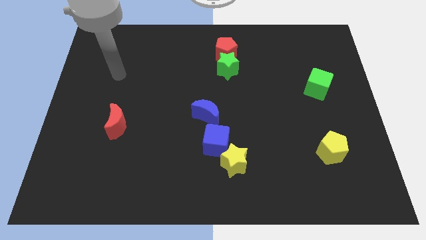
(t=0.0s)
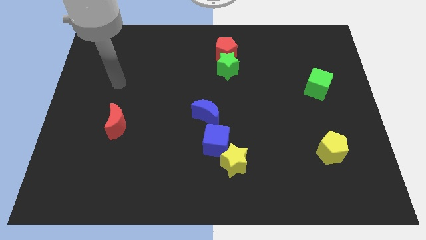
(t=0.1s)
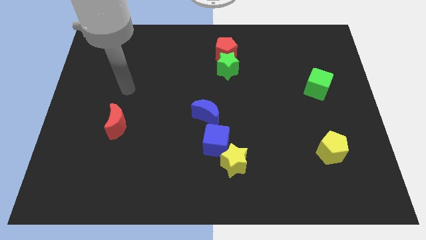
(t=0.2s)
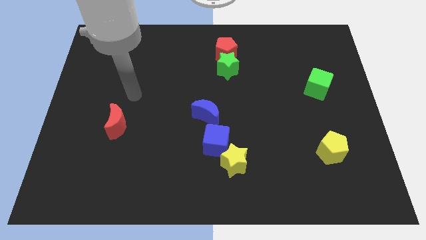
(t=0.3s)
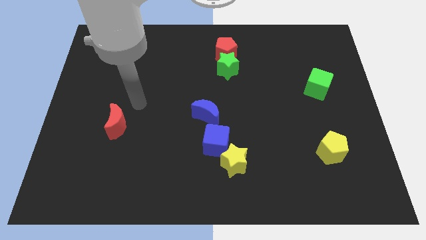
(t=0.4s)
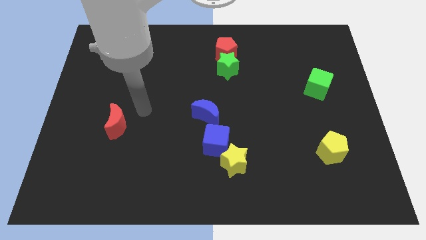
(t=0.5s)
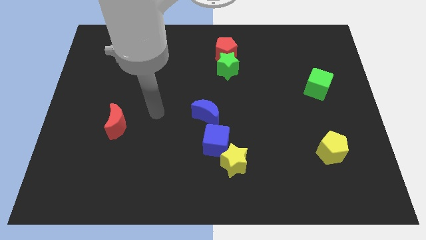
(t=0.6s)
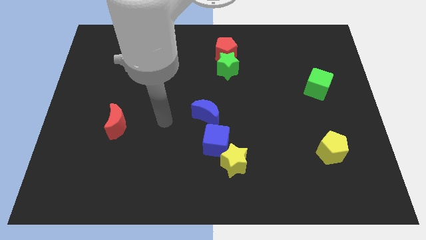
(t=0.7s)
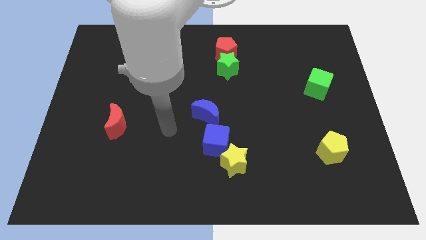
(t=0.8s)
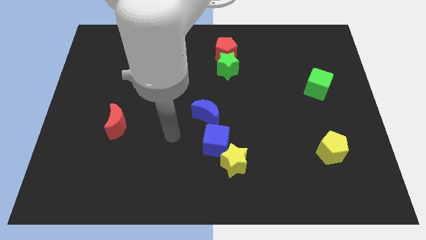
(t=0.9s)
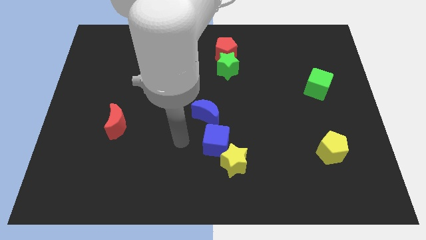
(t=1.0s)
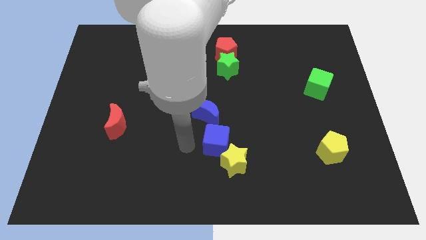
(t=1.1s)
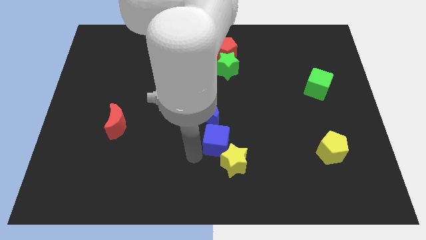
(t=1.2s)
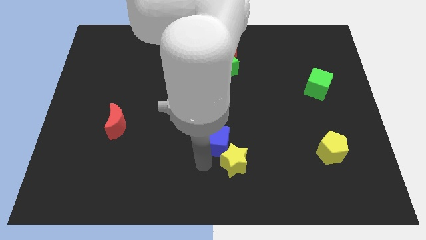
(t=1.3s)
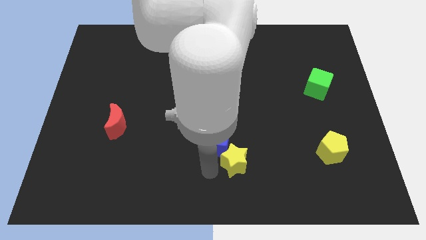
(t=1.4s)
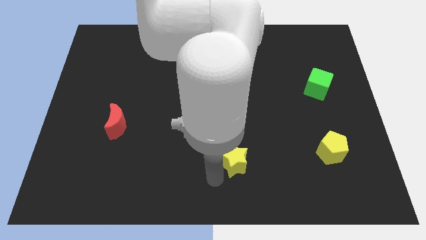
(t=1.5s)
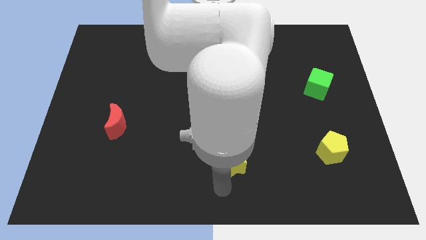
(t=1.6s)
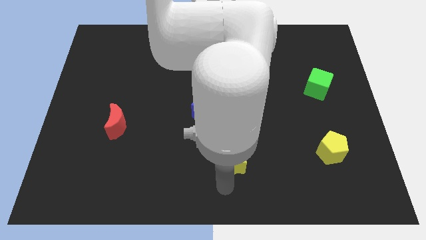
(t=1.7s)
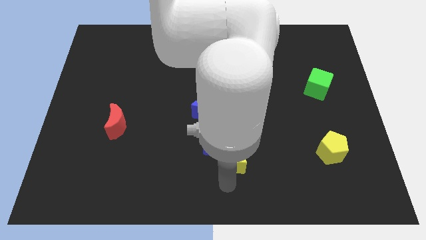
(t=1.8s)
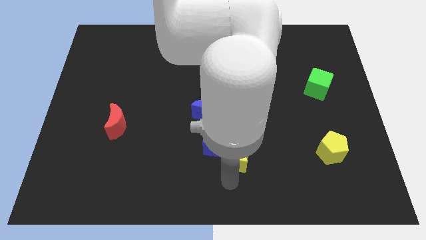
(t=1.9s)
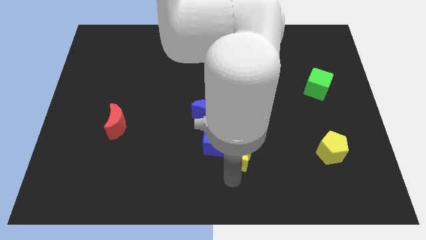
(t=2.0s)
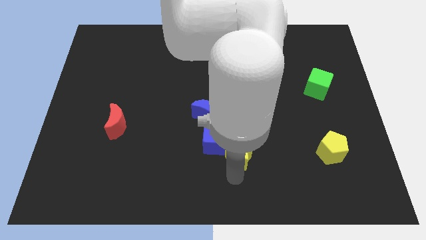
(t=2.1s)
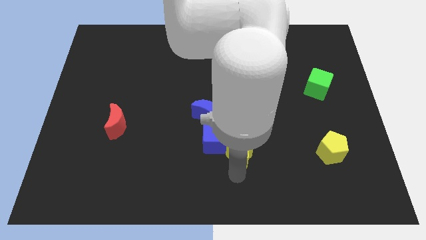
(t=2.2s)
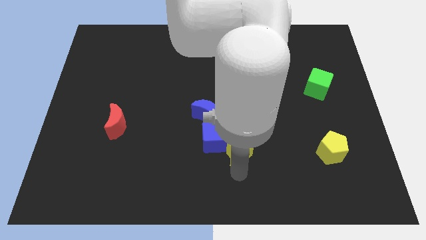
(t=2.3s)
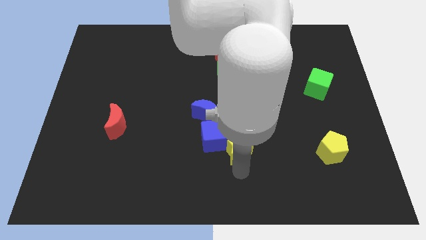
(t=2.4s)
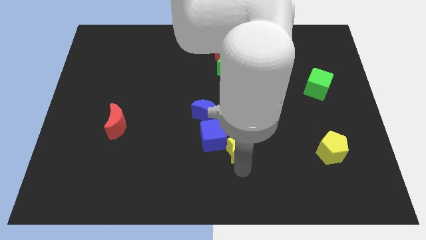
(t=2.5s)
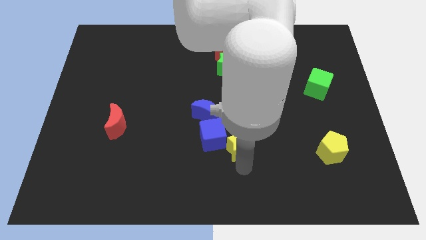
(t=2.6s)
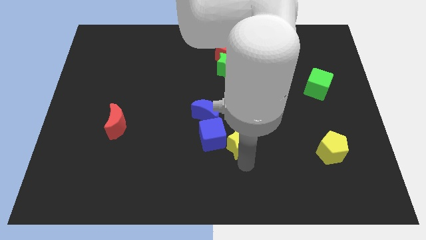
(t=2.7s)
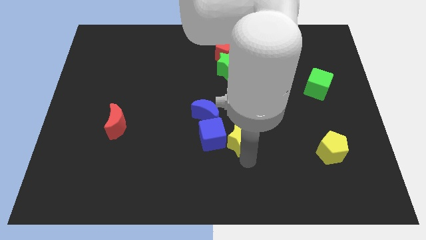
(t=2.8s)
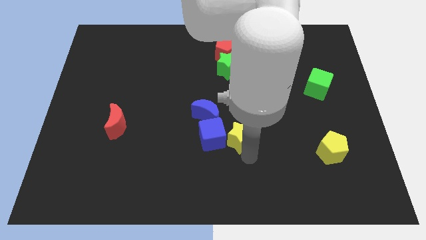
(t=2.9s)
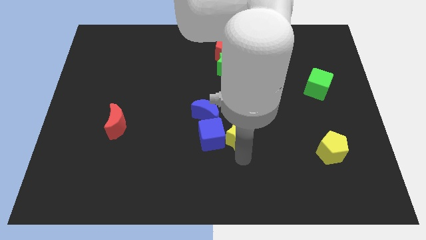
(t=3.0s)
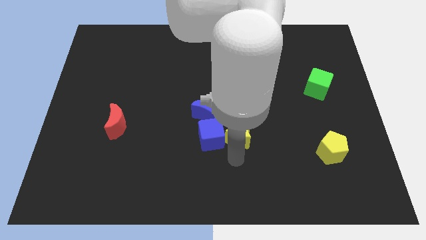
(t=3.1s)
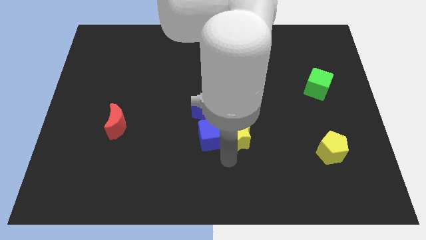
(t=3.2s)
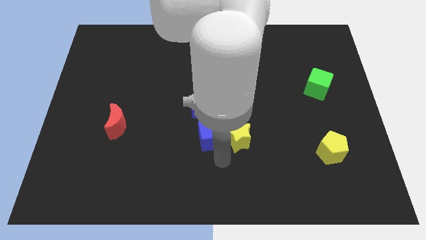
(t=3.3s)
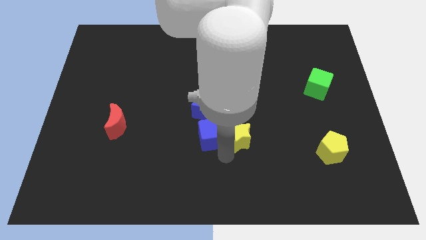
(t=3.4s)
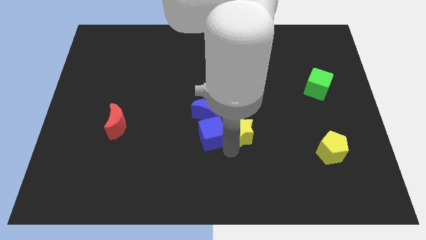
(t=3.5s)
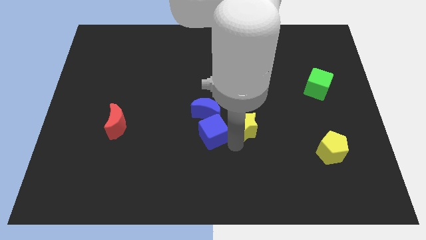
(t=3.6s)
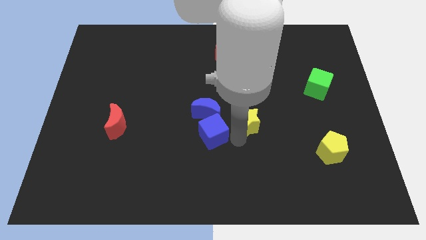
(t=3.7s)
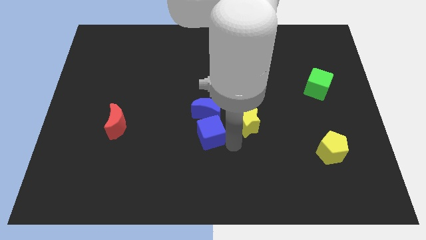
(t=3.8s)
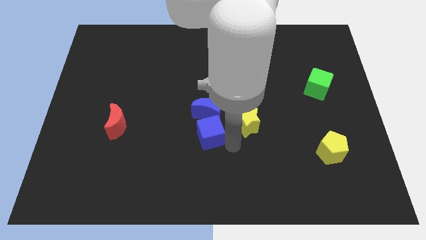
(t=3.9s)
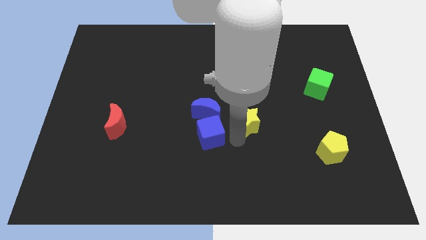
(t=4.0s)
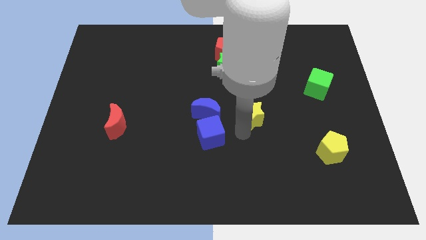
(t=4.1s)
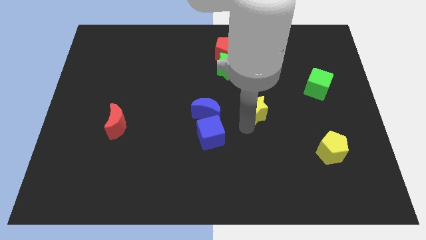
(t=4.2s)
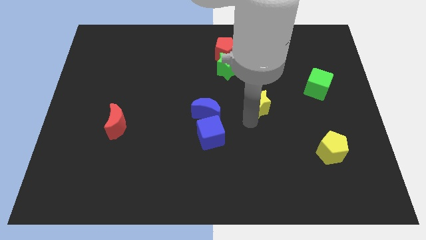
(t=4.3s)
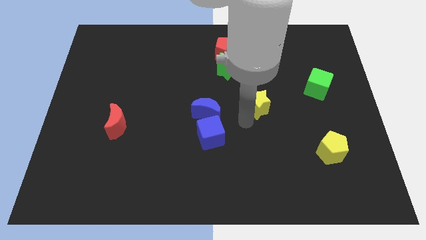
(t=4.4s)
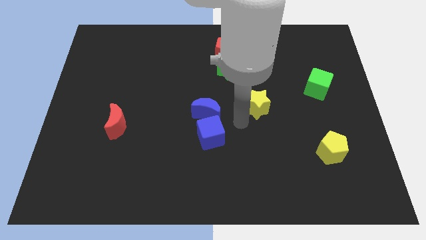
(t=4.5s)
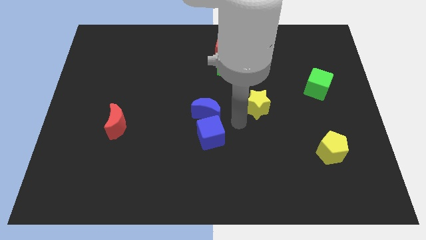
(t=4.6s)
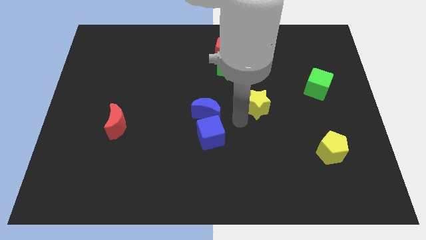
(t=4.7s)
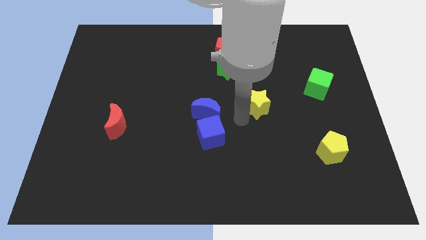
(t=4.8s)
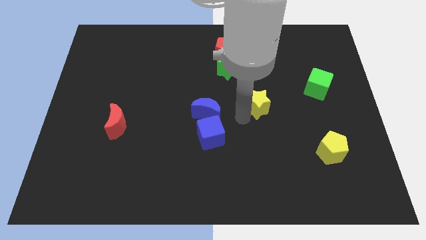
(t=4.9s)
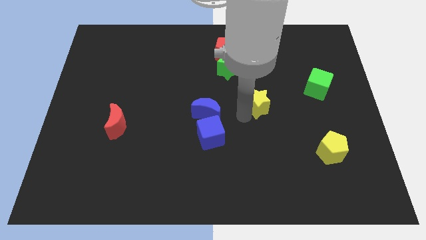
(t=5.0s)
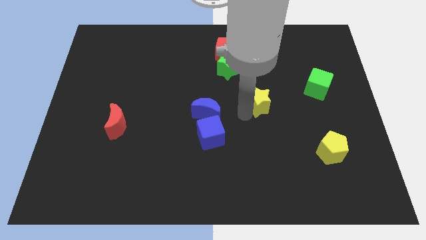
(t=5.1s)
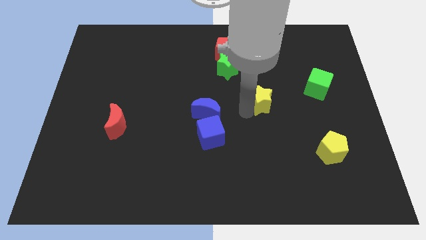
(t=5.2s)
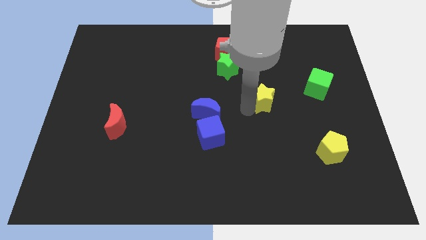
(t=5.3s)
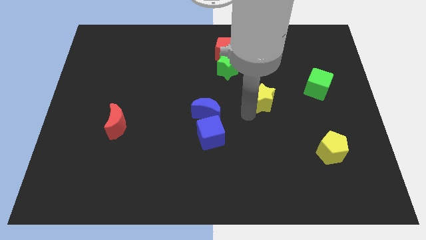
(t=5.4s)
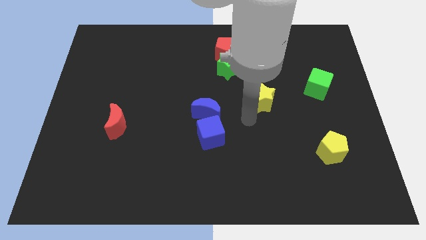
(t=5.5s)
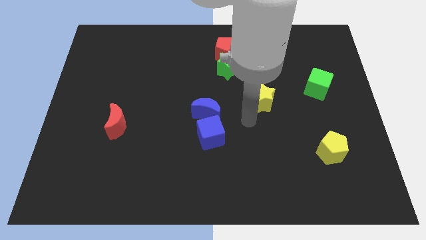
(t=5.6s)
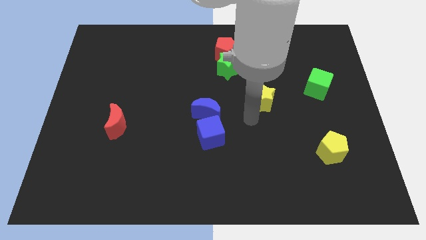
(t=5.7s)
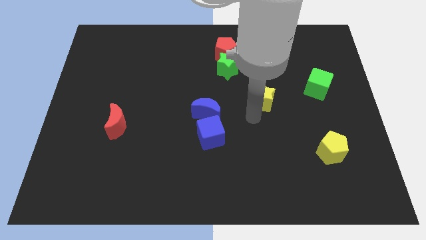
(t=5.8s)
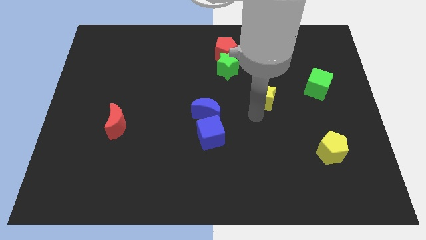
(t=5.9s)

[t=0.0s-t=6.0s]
slide the yellow star left of the green cube

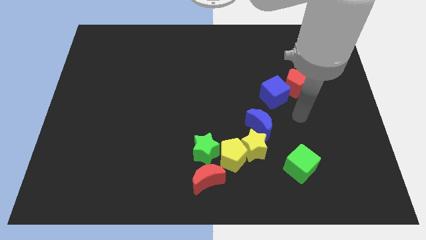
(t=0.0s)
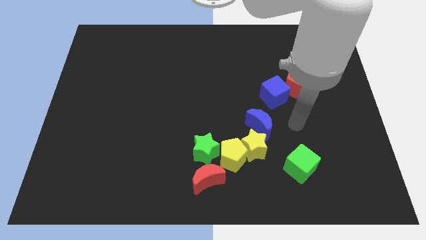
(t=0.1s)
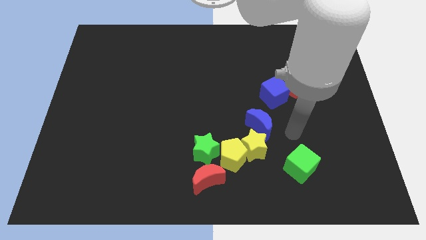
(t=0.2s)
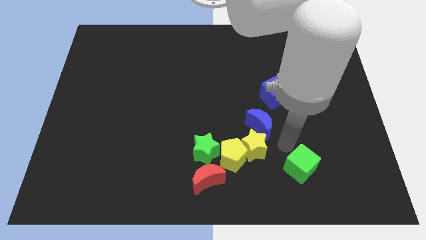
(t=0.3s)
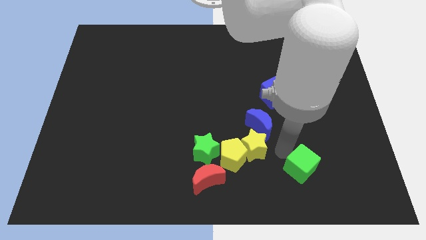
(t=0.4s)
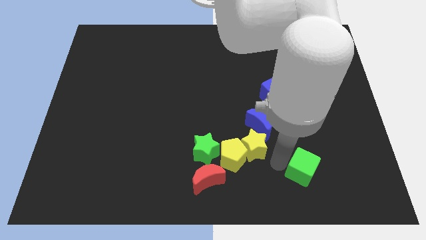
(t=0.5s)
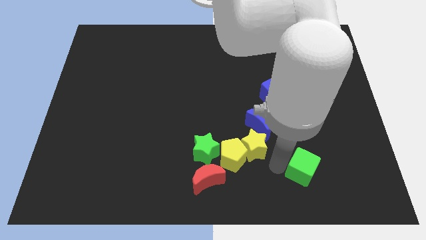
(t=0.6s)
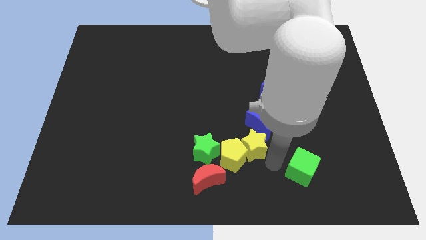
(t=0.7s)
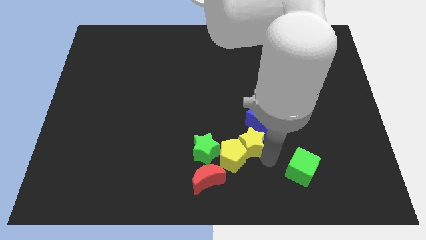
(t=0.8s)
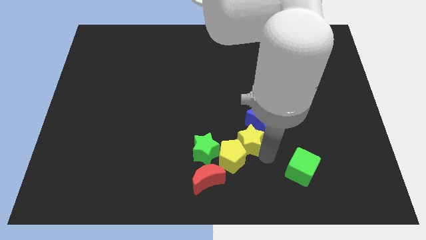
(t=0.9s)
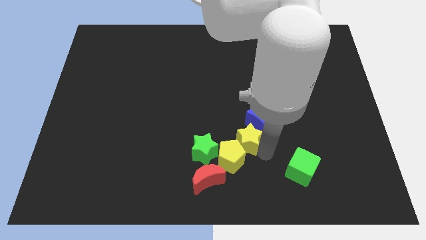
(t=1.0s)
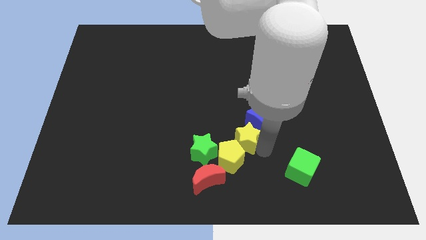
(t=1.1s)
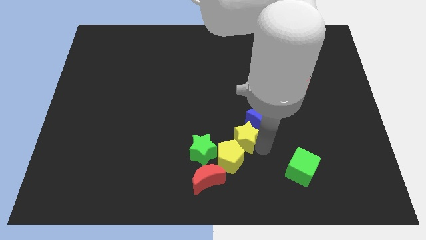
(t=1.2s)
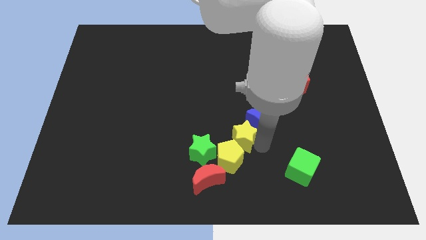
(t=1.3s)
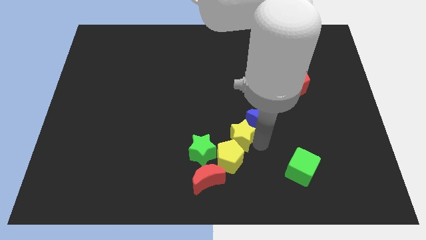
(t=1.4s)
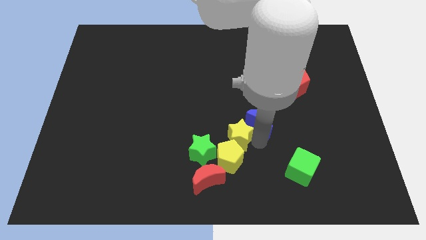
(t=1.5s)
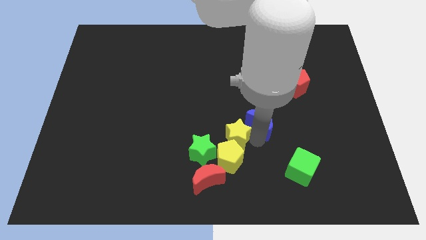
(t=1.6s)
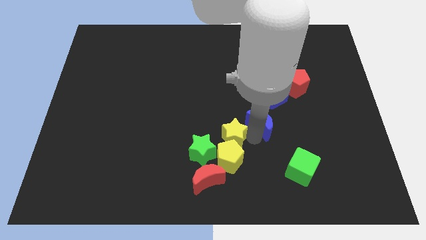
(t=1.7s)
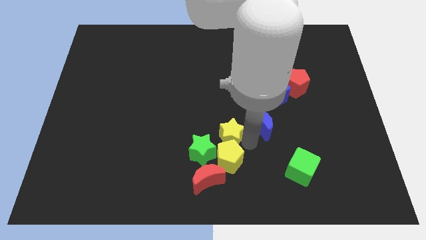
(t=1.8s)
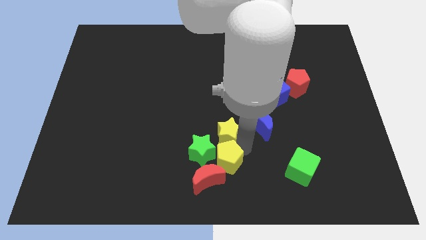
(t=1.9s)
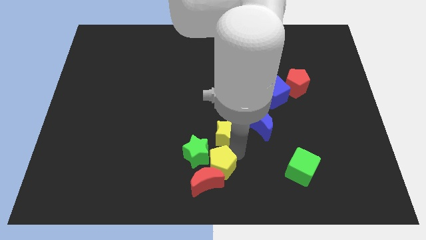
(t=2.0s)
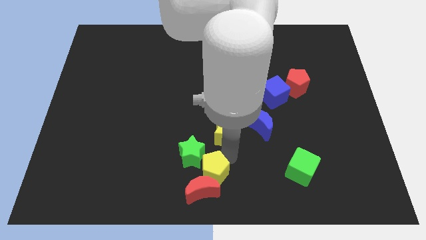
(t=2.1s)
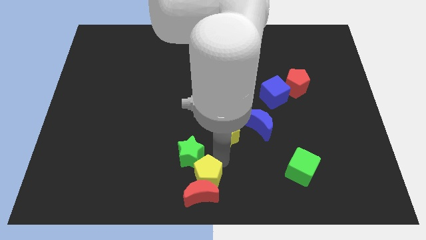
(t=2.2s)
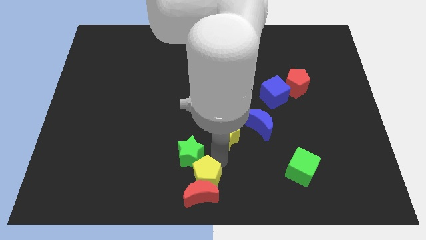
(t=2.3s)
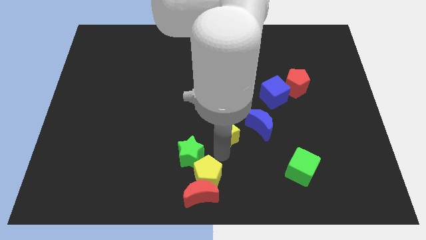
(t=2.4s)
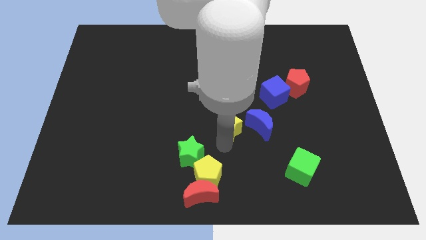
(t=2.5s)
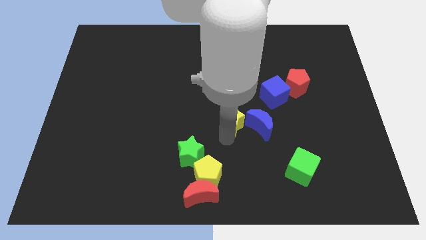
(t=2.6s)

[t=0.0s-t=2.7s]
push the yellow star diagonally up and to the left of the blue moon
